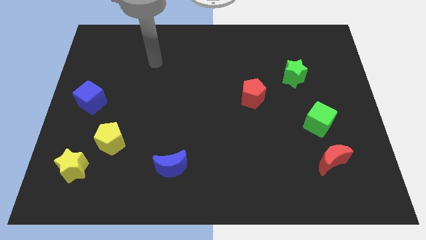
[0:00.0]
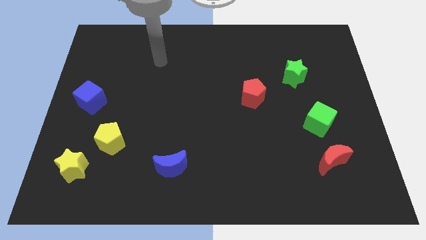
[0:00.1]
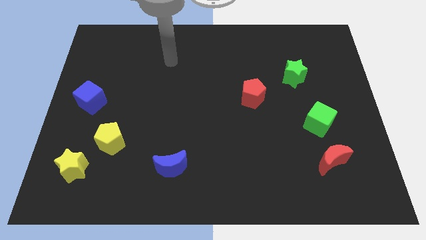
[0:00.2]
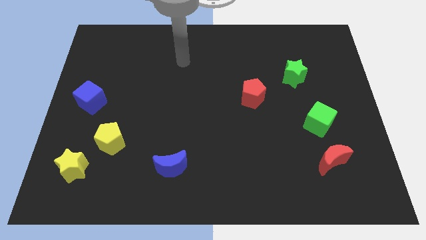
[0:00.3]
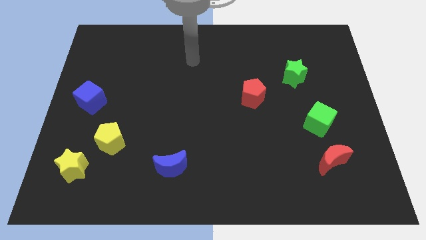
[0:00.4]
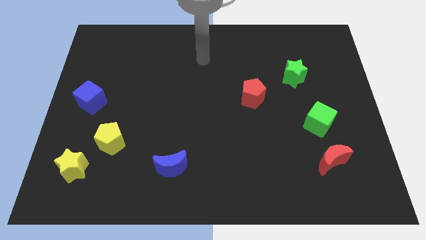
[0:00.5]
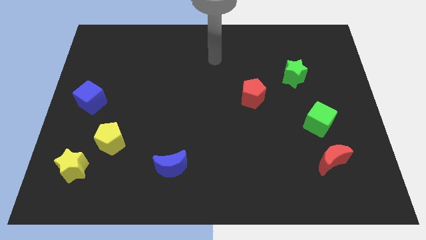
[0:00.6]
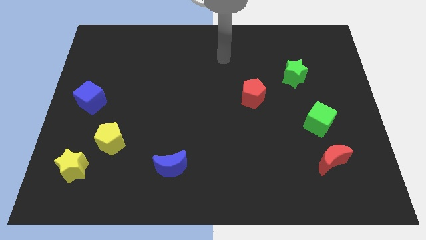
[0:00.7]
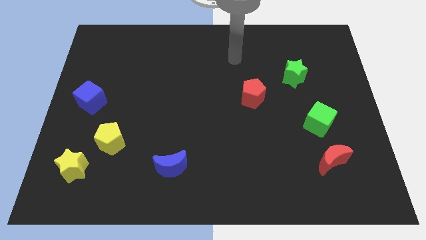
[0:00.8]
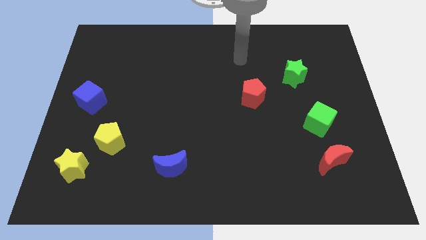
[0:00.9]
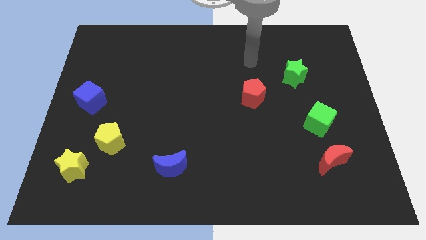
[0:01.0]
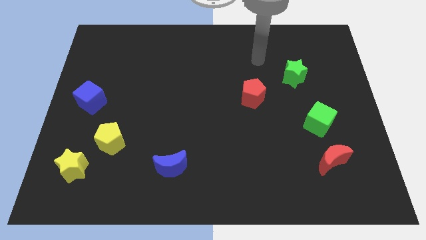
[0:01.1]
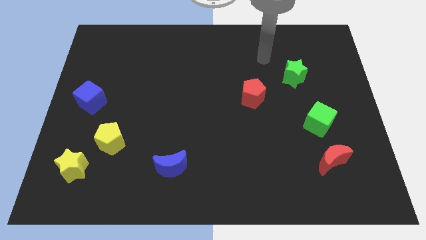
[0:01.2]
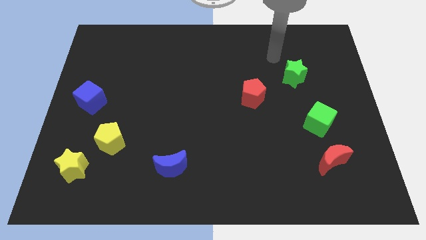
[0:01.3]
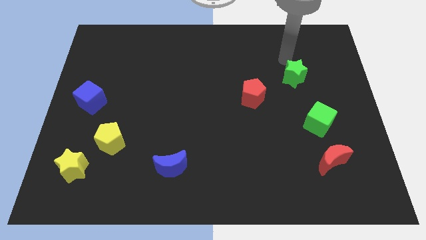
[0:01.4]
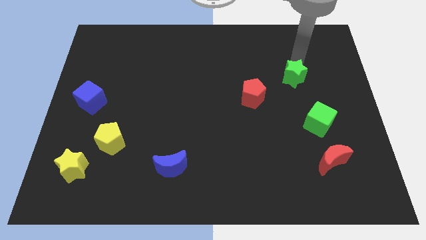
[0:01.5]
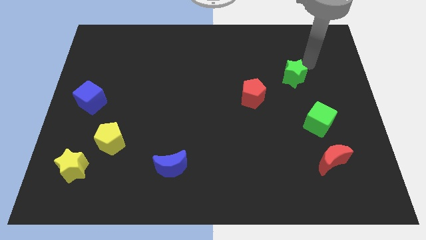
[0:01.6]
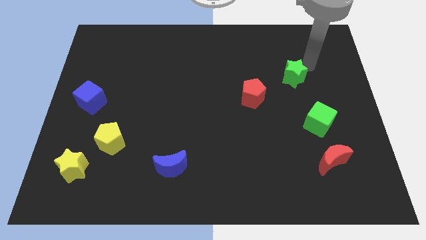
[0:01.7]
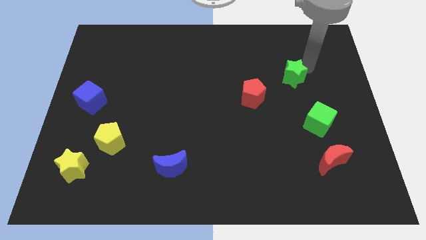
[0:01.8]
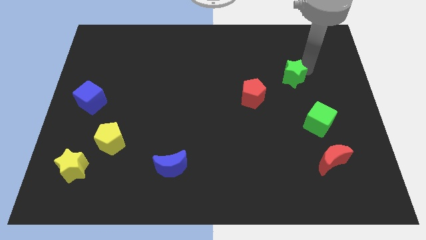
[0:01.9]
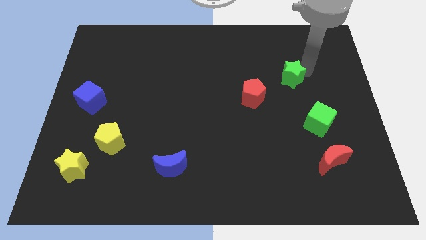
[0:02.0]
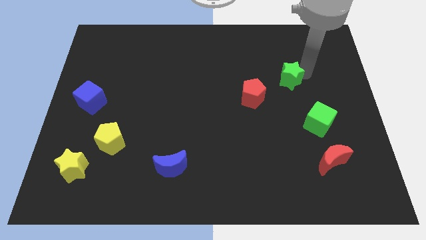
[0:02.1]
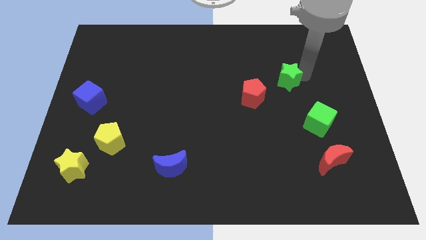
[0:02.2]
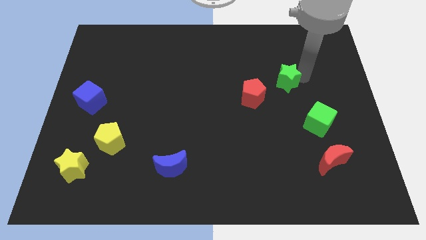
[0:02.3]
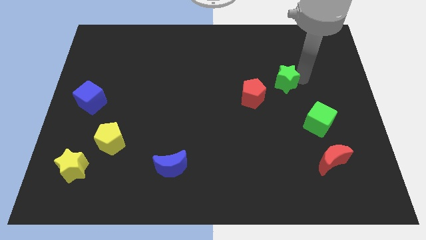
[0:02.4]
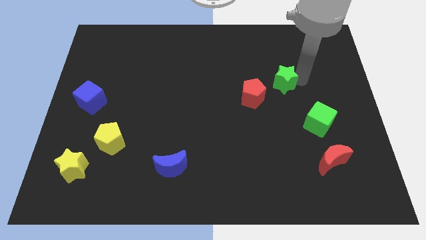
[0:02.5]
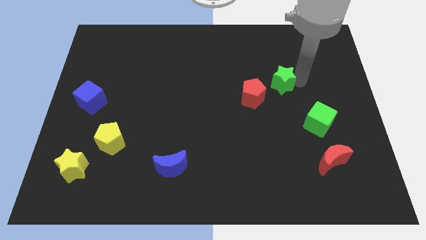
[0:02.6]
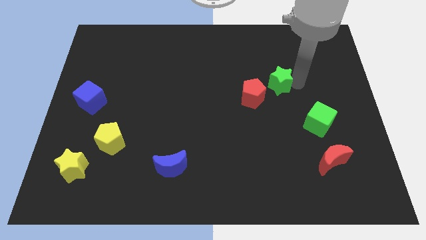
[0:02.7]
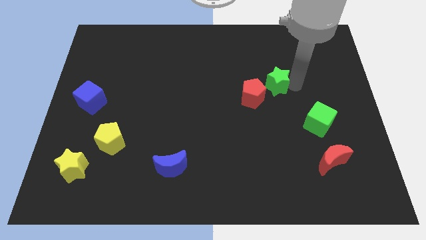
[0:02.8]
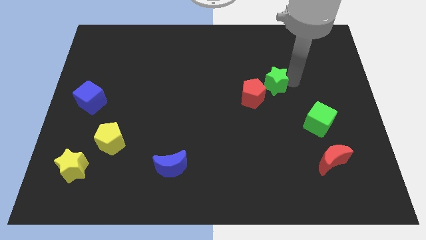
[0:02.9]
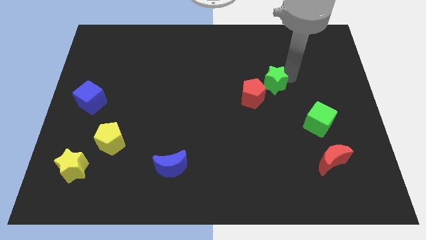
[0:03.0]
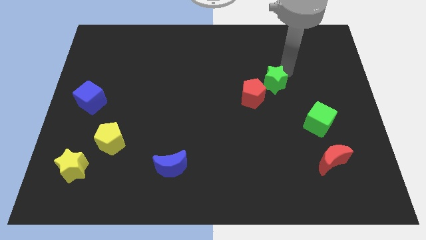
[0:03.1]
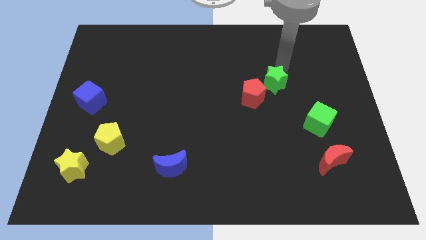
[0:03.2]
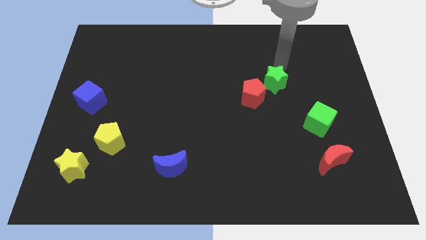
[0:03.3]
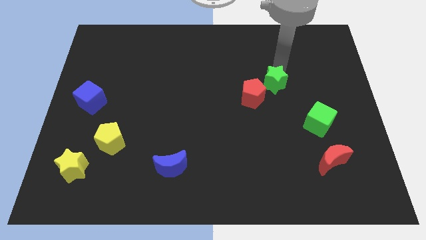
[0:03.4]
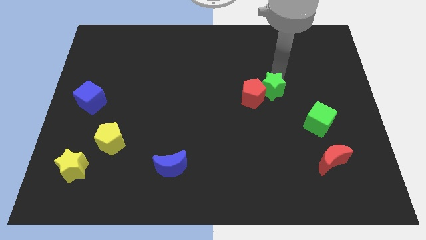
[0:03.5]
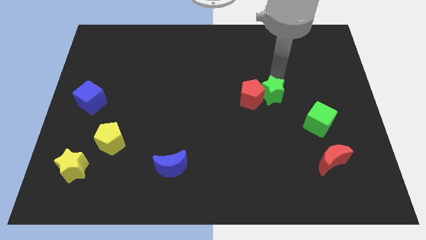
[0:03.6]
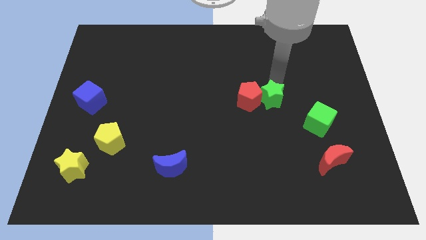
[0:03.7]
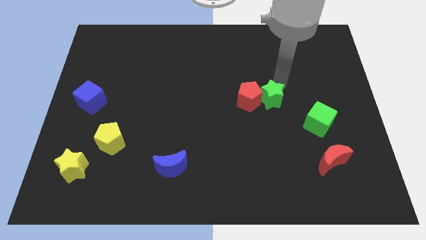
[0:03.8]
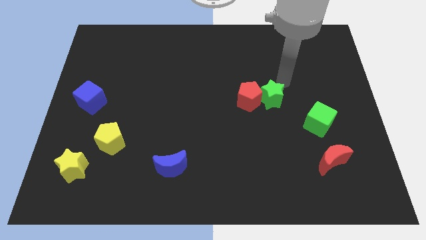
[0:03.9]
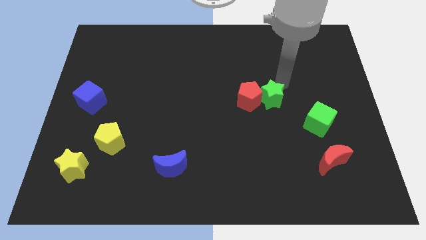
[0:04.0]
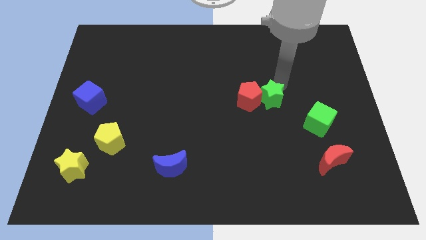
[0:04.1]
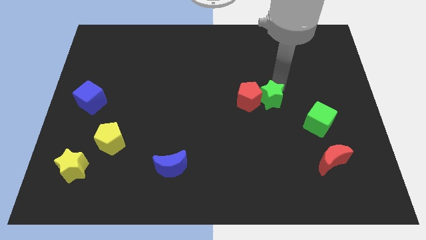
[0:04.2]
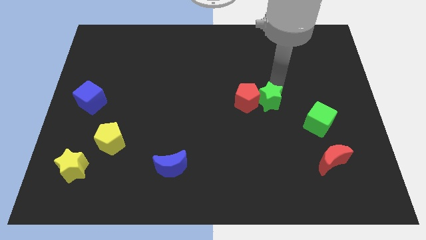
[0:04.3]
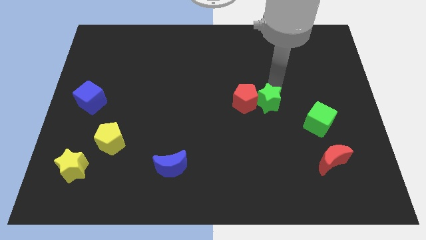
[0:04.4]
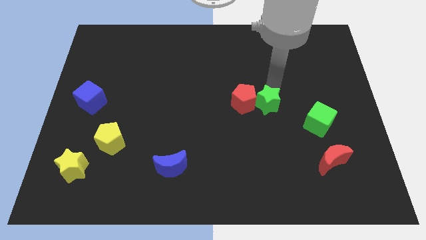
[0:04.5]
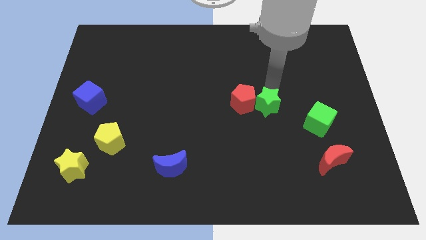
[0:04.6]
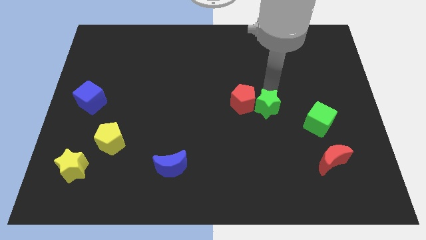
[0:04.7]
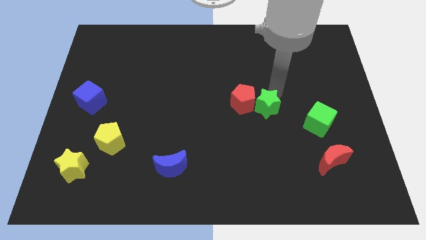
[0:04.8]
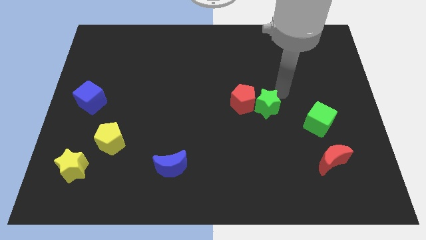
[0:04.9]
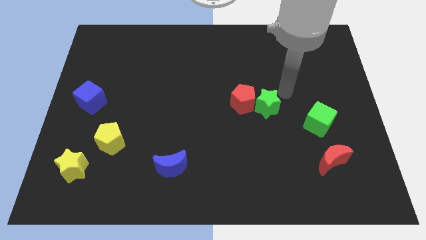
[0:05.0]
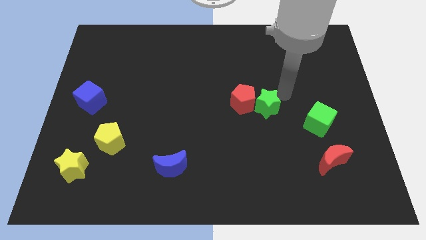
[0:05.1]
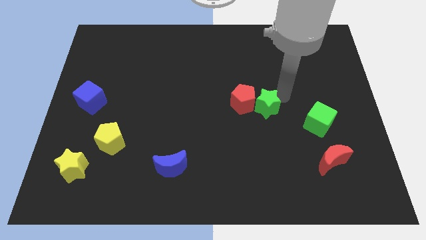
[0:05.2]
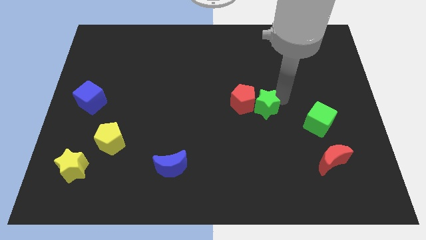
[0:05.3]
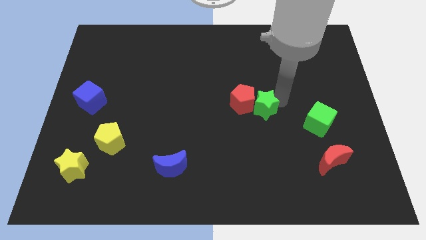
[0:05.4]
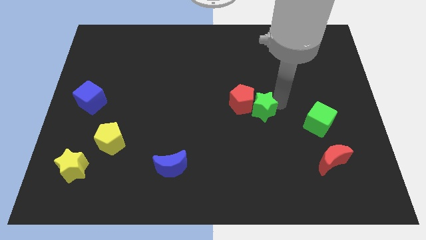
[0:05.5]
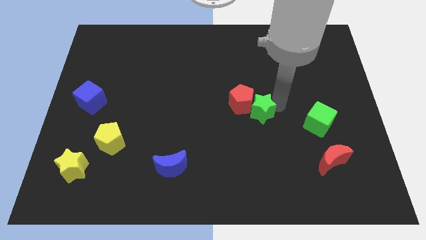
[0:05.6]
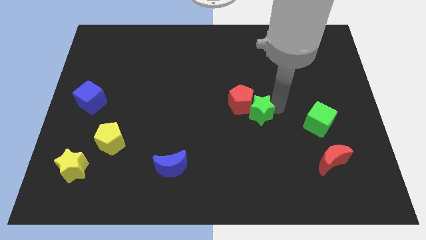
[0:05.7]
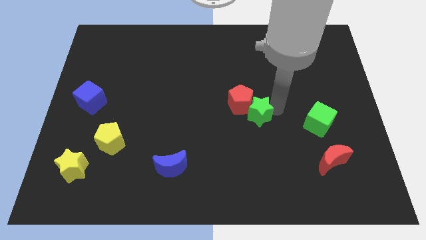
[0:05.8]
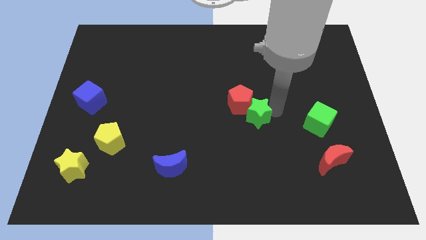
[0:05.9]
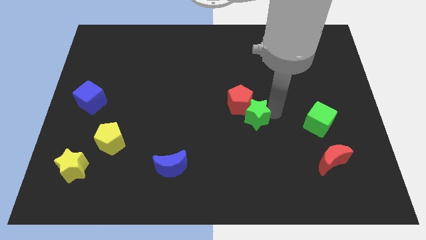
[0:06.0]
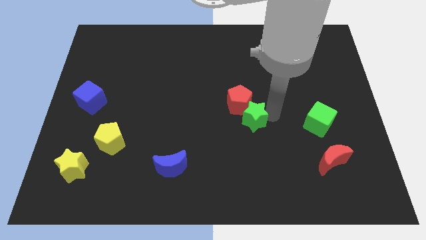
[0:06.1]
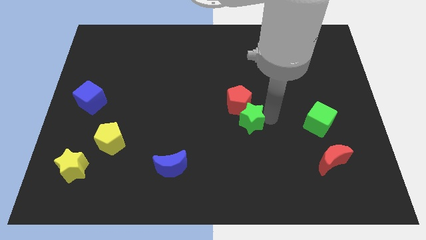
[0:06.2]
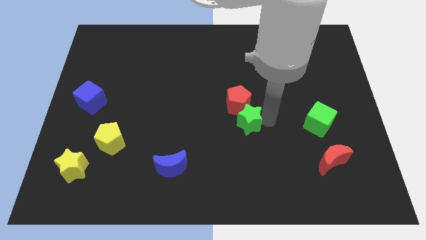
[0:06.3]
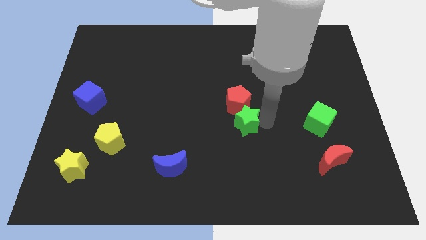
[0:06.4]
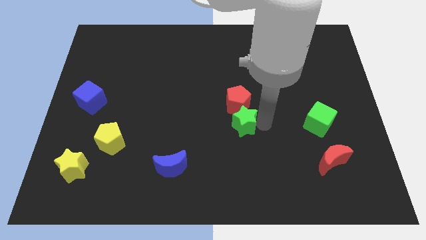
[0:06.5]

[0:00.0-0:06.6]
move the green star downwards and to the left

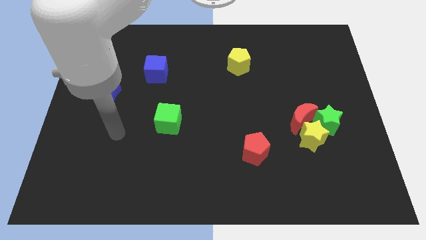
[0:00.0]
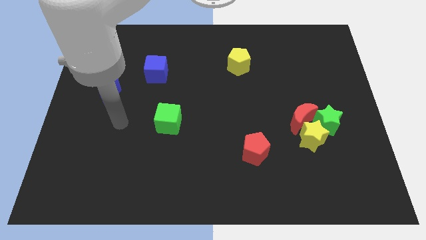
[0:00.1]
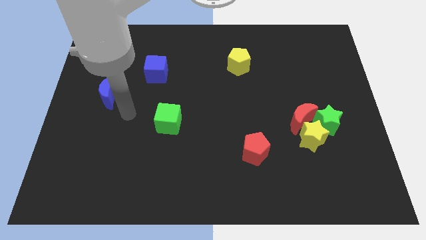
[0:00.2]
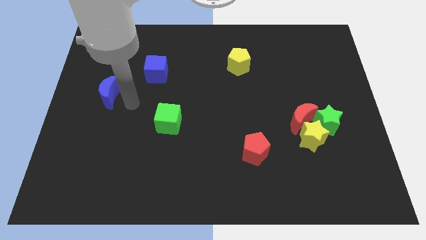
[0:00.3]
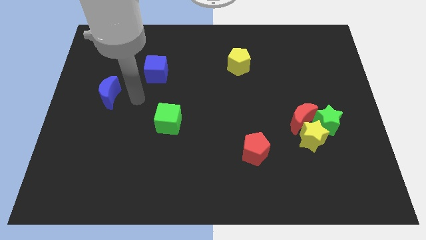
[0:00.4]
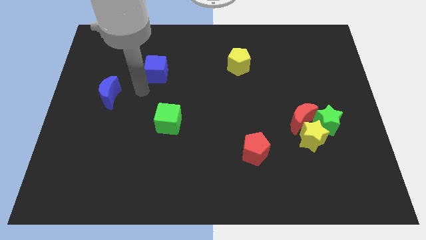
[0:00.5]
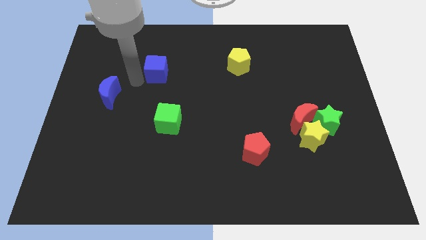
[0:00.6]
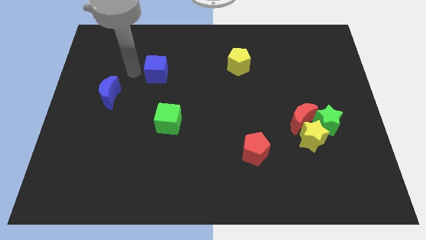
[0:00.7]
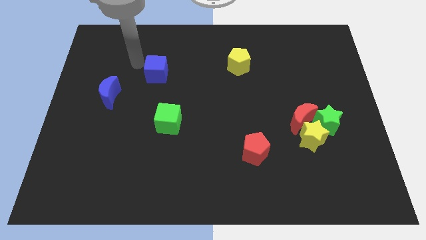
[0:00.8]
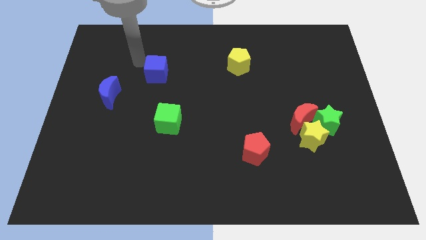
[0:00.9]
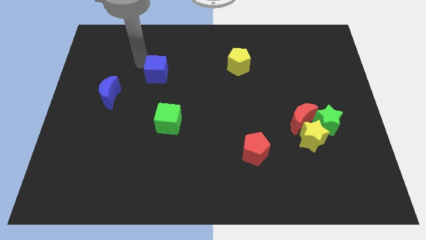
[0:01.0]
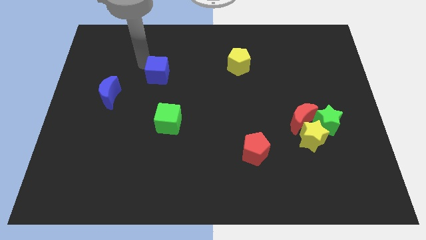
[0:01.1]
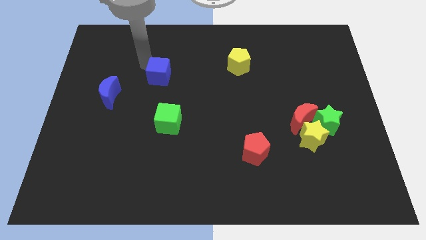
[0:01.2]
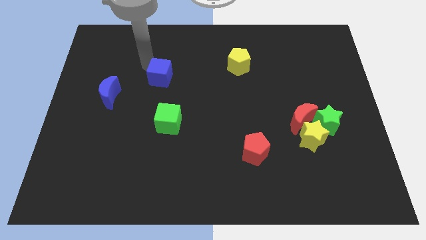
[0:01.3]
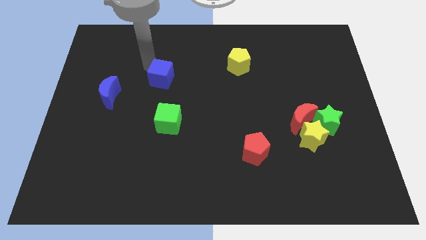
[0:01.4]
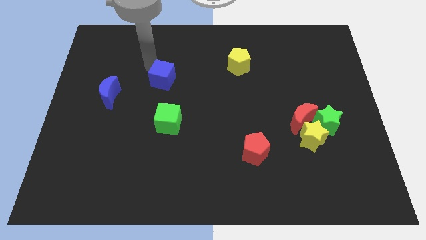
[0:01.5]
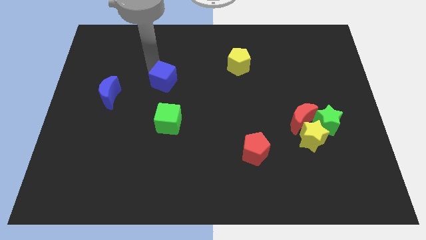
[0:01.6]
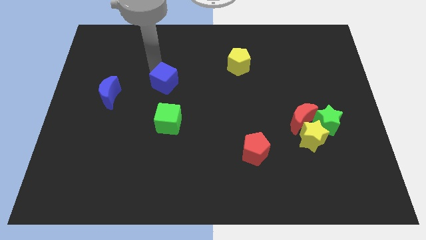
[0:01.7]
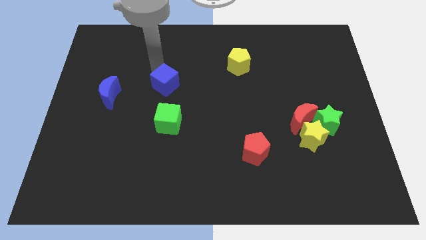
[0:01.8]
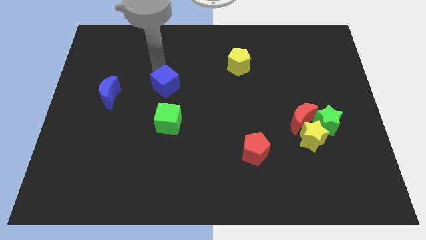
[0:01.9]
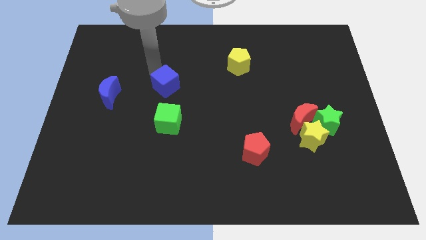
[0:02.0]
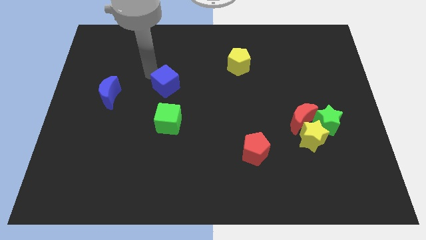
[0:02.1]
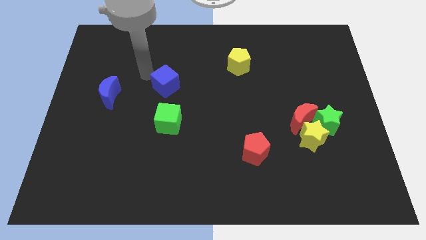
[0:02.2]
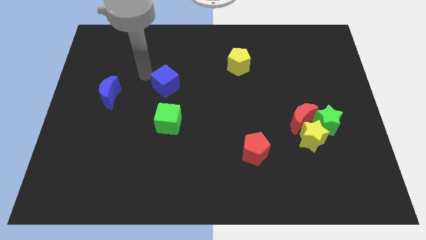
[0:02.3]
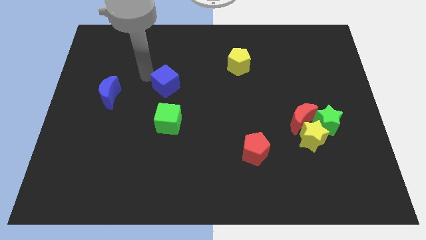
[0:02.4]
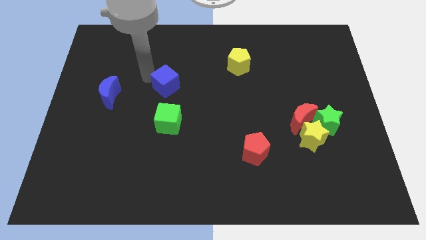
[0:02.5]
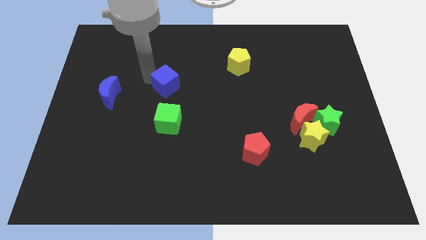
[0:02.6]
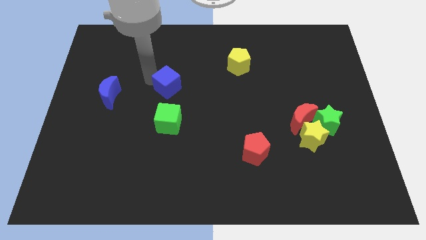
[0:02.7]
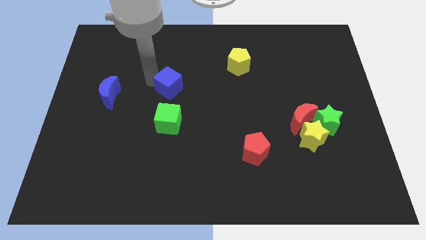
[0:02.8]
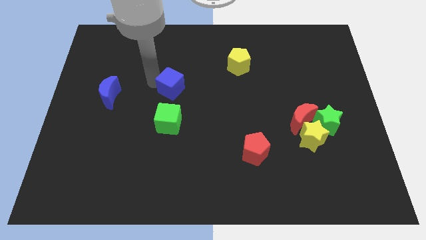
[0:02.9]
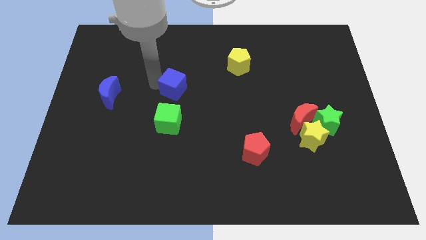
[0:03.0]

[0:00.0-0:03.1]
slide the blue cube down and to the right diagonally somewhat
